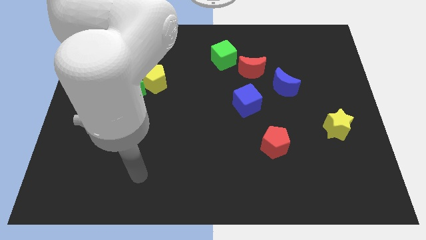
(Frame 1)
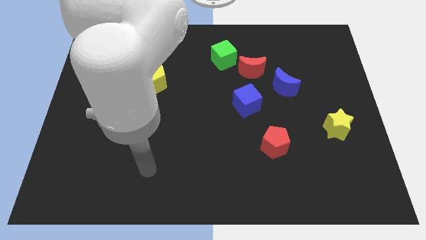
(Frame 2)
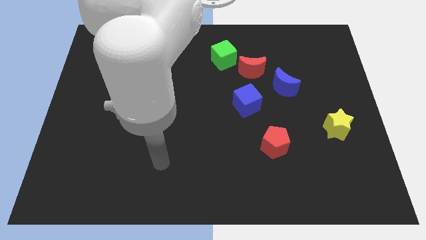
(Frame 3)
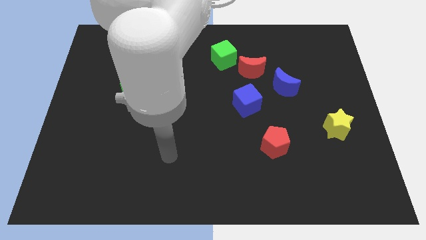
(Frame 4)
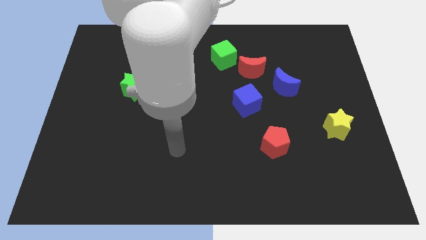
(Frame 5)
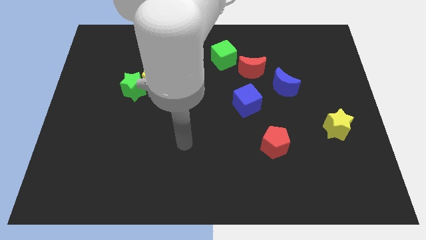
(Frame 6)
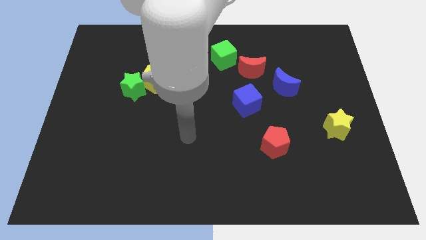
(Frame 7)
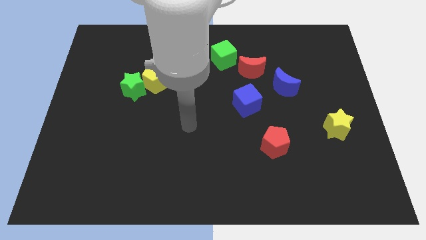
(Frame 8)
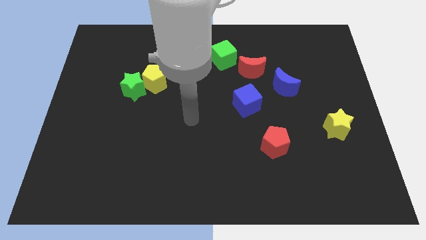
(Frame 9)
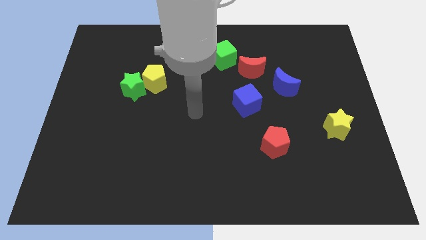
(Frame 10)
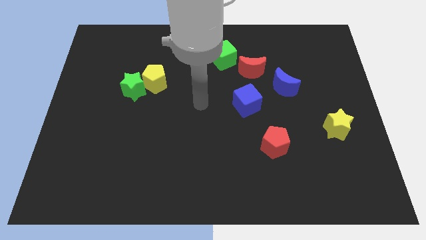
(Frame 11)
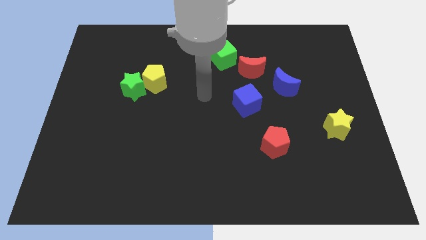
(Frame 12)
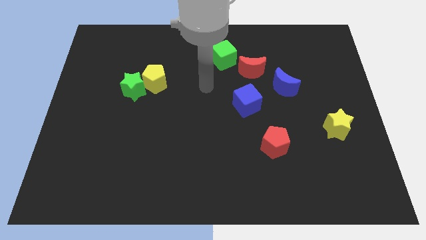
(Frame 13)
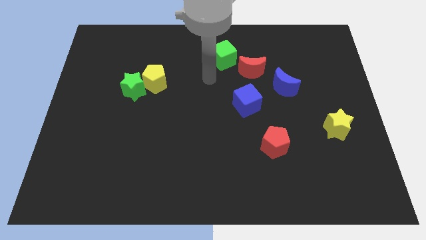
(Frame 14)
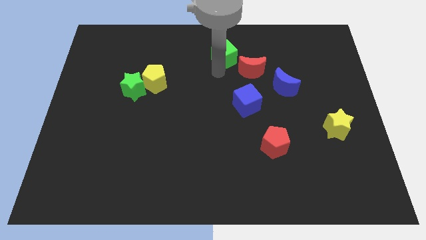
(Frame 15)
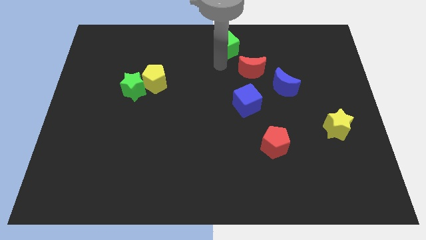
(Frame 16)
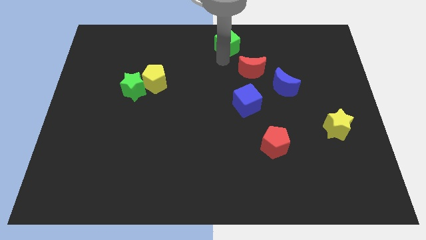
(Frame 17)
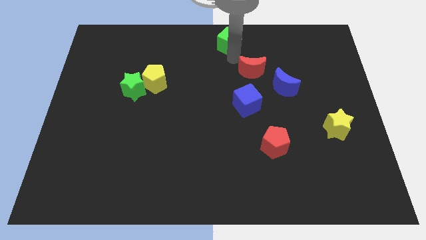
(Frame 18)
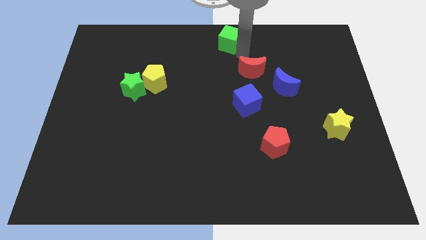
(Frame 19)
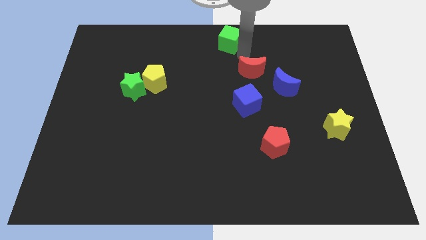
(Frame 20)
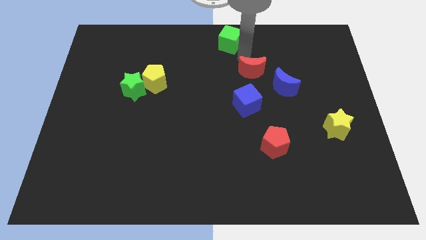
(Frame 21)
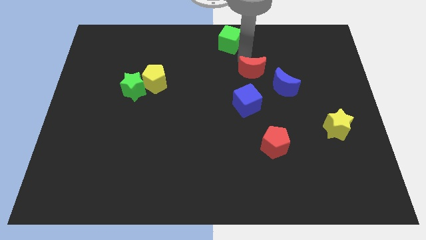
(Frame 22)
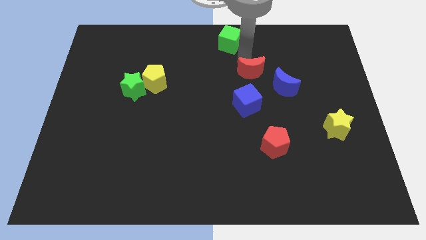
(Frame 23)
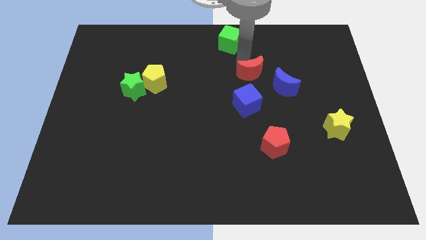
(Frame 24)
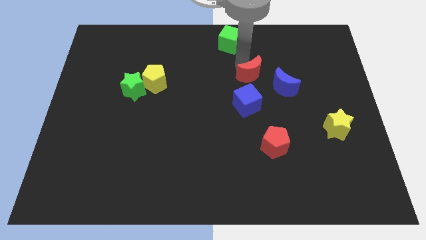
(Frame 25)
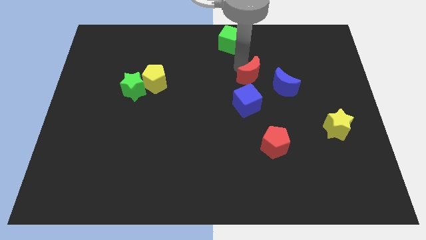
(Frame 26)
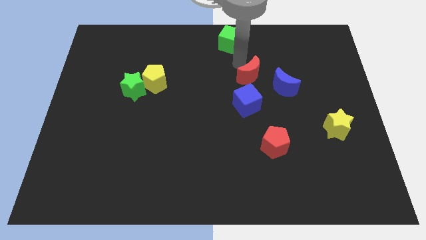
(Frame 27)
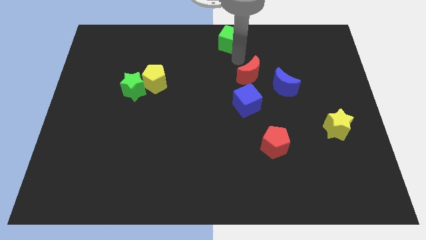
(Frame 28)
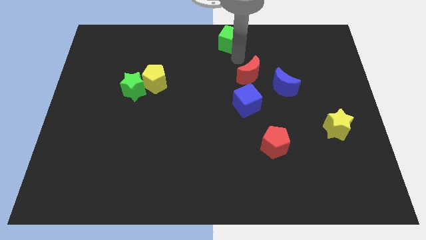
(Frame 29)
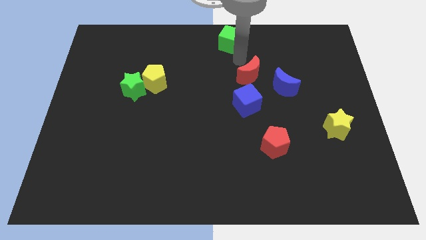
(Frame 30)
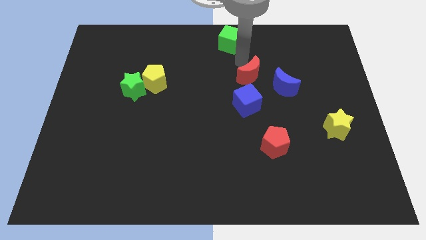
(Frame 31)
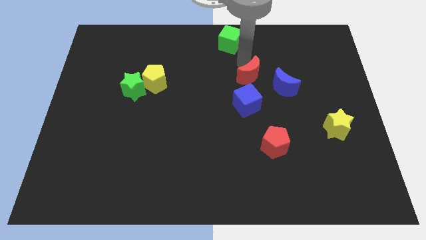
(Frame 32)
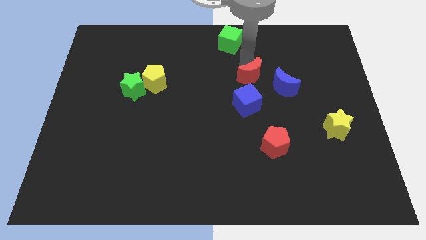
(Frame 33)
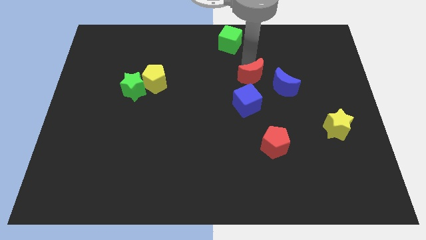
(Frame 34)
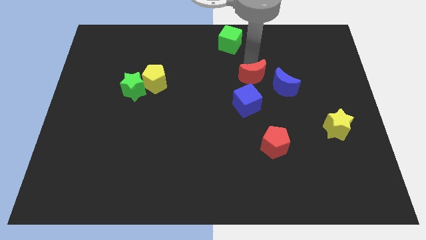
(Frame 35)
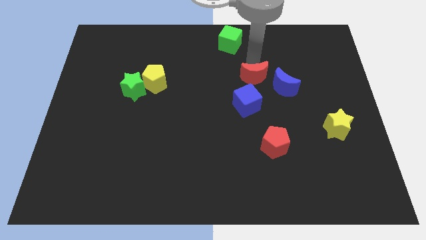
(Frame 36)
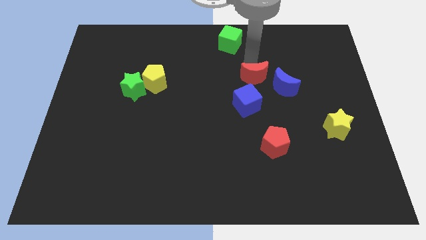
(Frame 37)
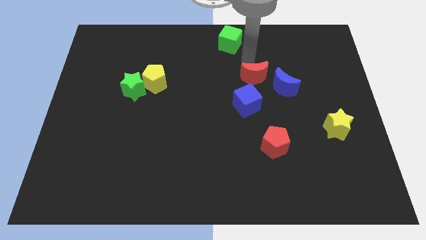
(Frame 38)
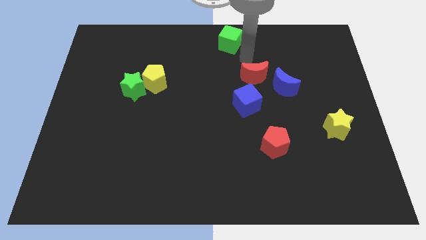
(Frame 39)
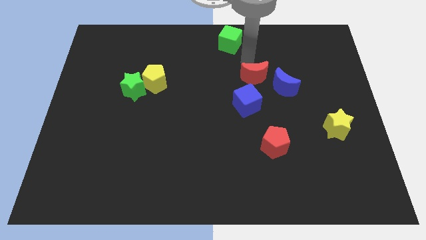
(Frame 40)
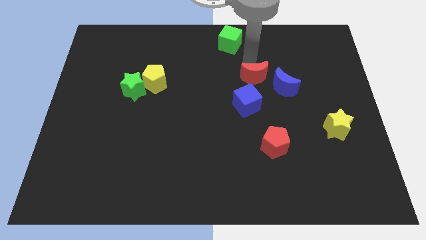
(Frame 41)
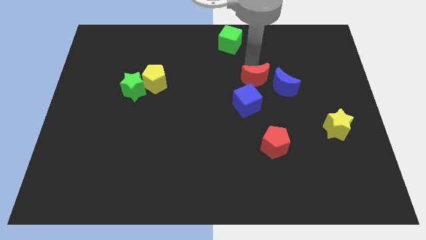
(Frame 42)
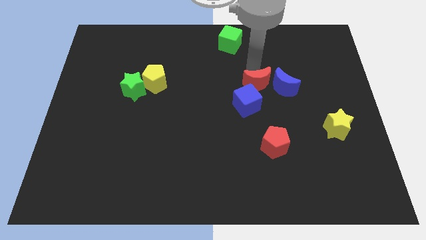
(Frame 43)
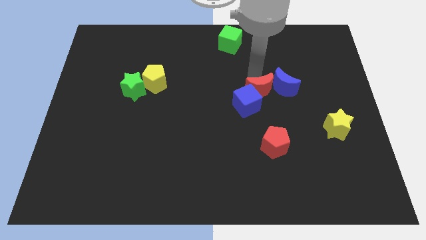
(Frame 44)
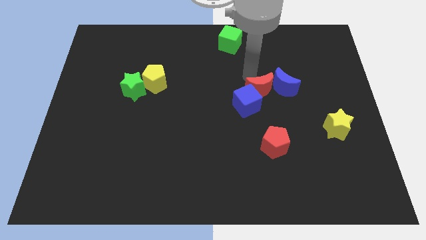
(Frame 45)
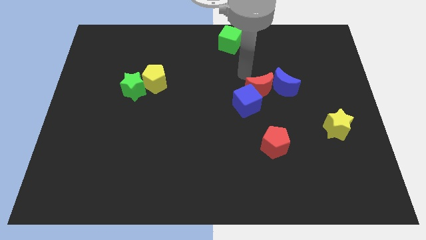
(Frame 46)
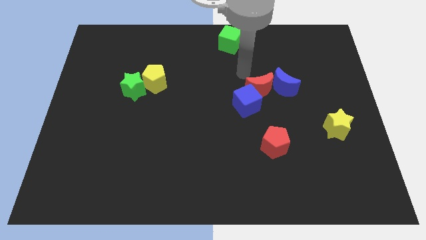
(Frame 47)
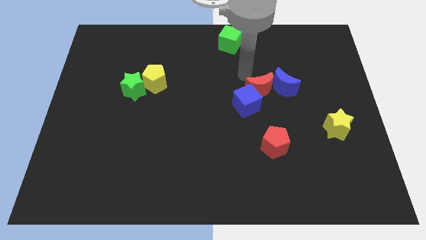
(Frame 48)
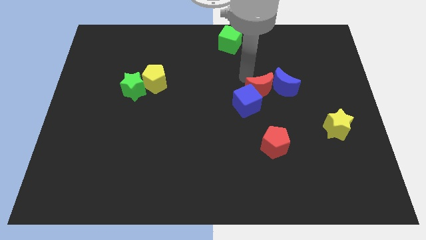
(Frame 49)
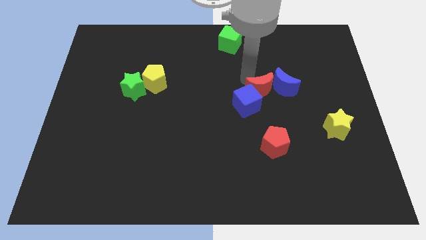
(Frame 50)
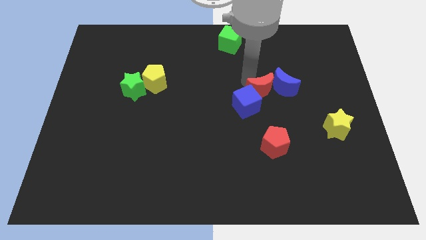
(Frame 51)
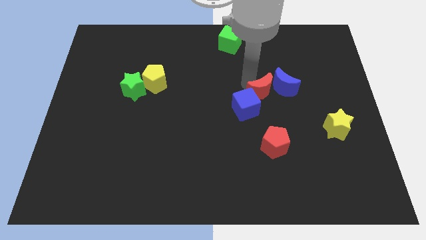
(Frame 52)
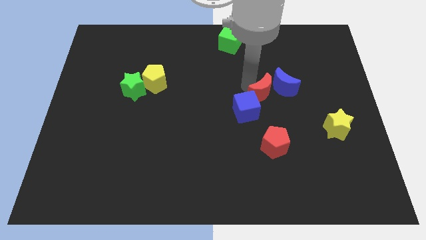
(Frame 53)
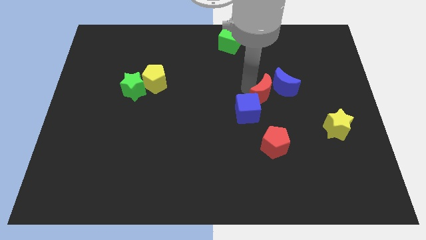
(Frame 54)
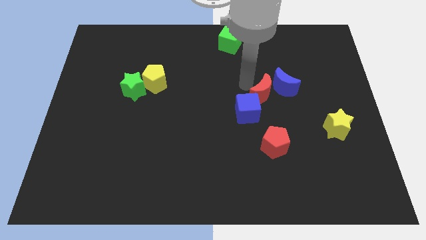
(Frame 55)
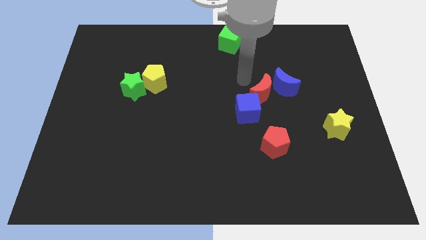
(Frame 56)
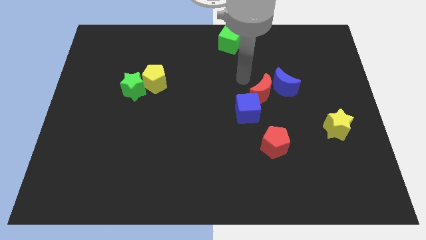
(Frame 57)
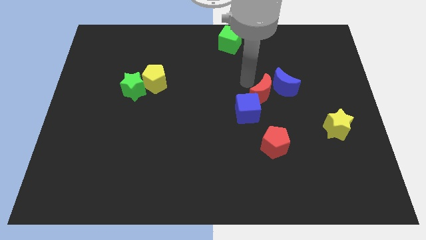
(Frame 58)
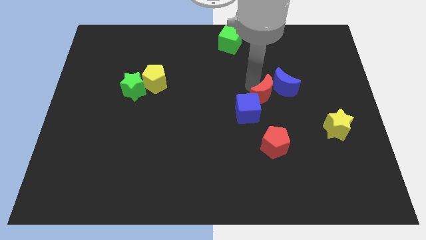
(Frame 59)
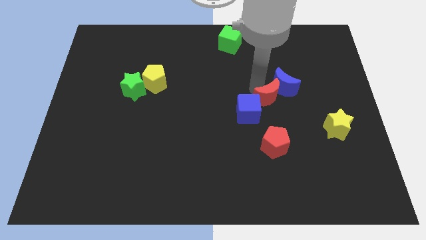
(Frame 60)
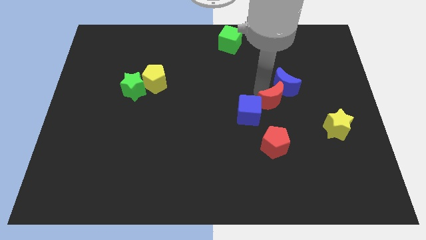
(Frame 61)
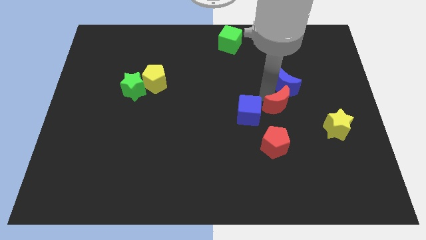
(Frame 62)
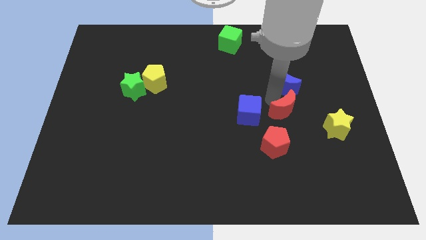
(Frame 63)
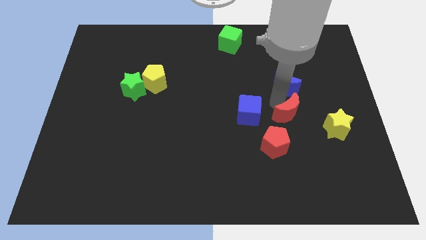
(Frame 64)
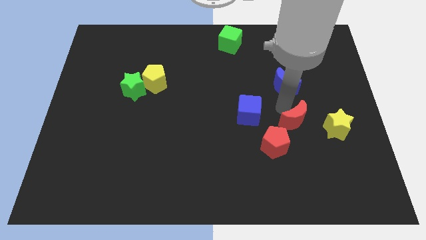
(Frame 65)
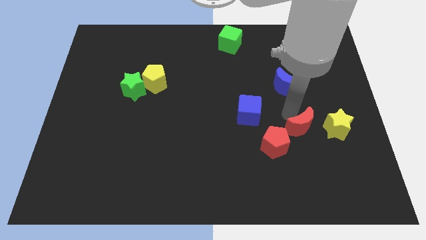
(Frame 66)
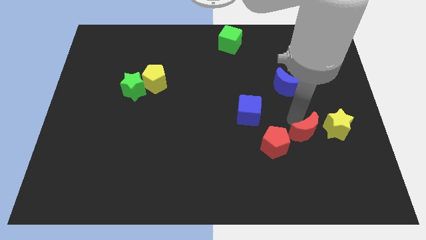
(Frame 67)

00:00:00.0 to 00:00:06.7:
put the red moon to the bottom left of the yellow star
